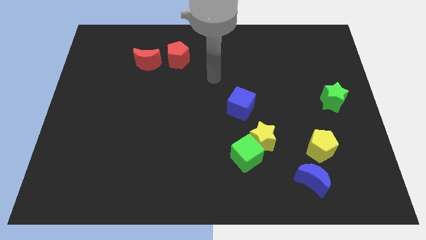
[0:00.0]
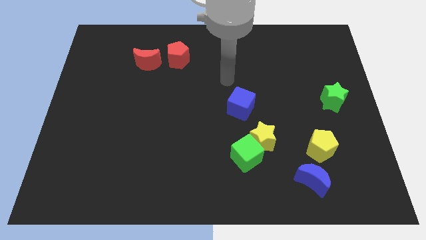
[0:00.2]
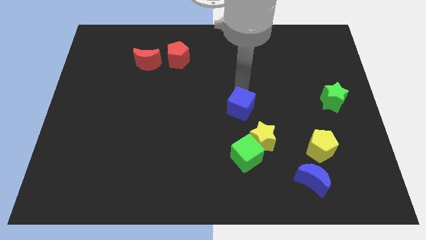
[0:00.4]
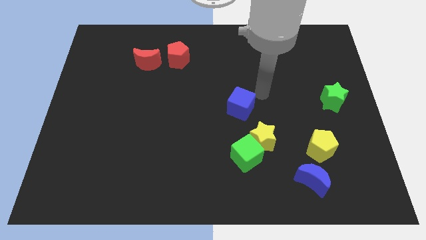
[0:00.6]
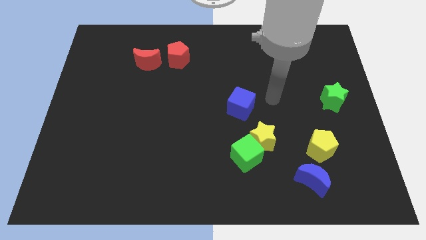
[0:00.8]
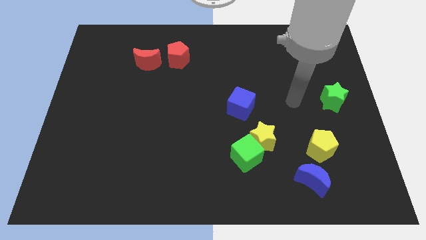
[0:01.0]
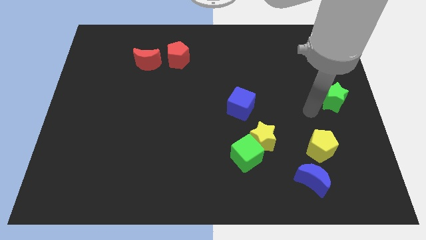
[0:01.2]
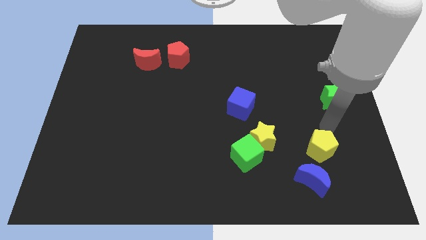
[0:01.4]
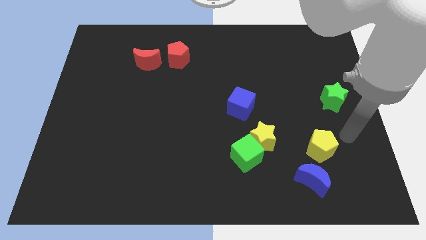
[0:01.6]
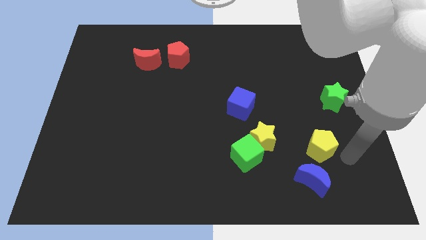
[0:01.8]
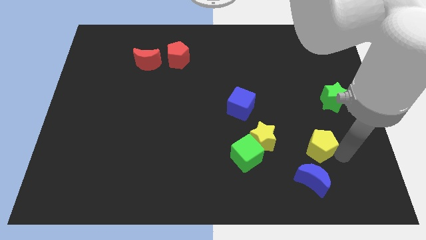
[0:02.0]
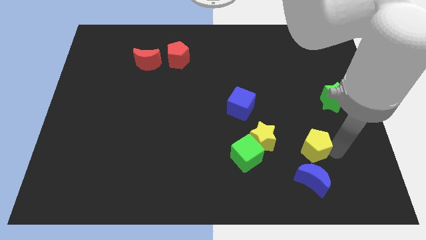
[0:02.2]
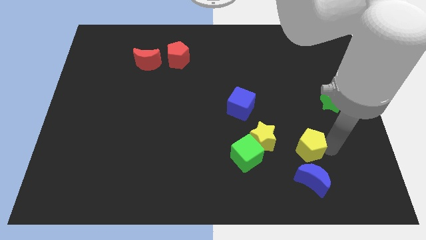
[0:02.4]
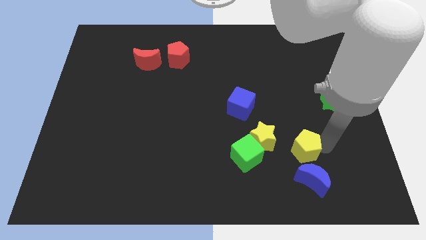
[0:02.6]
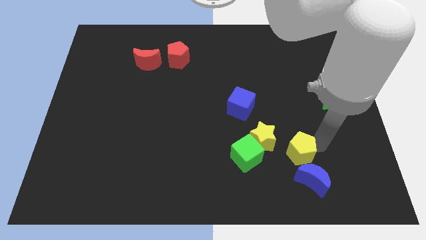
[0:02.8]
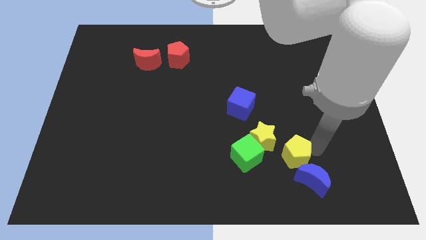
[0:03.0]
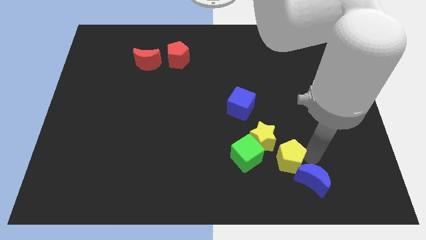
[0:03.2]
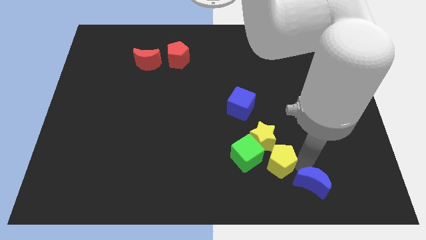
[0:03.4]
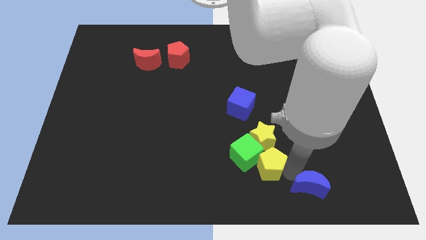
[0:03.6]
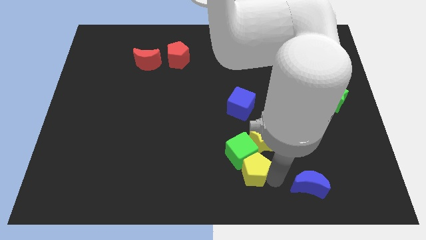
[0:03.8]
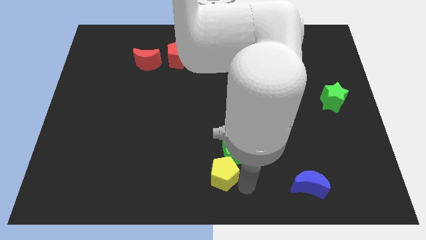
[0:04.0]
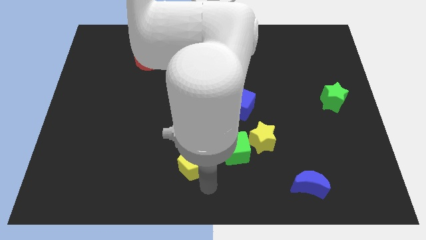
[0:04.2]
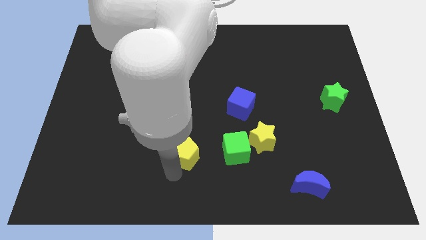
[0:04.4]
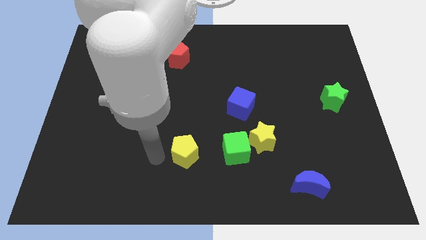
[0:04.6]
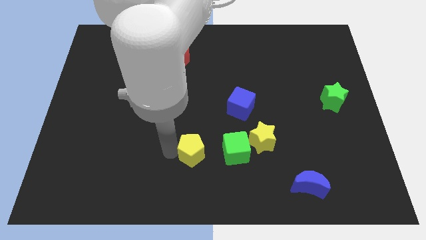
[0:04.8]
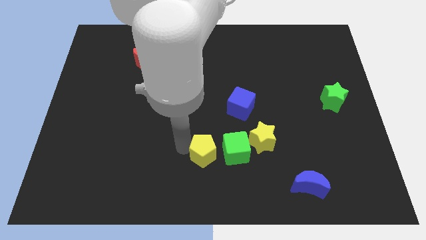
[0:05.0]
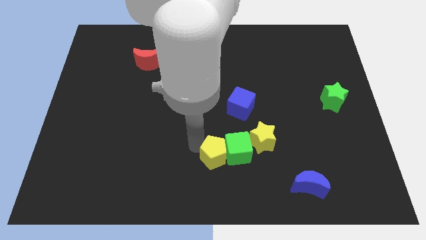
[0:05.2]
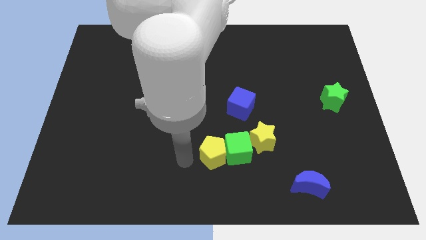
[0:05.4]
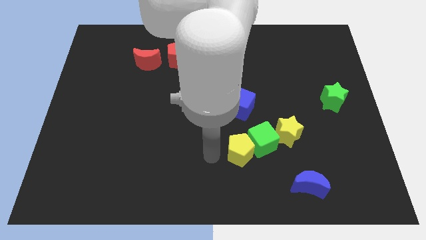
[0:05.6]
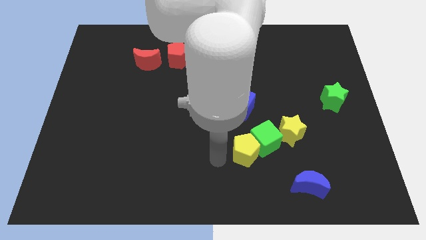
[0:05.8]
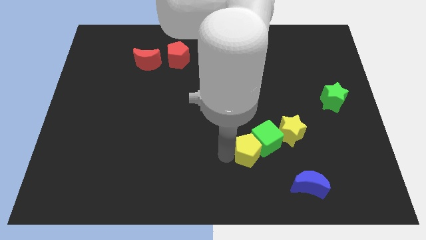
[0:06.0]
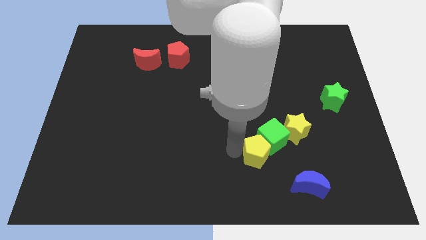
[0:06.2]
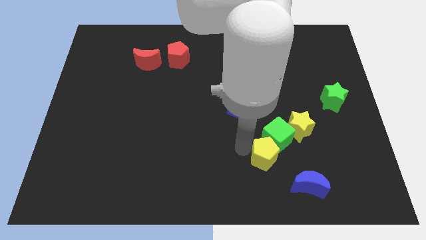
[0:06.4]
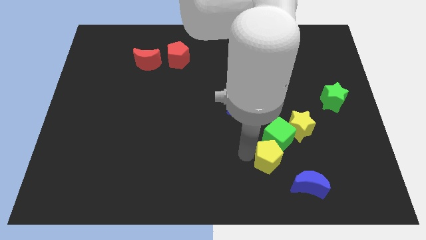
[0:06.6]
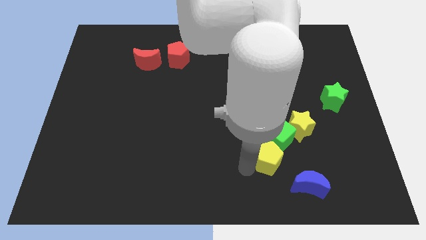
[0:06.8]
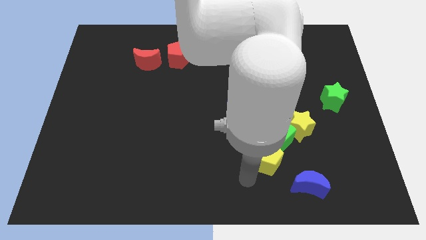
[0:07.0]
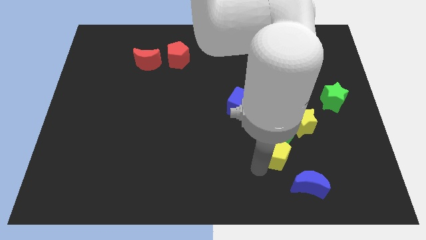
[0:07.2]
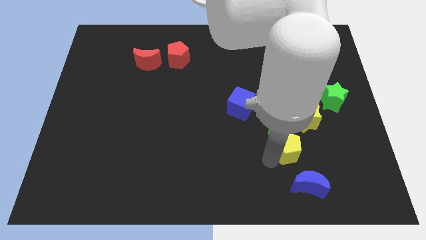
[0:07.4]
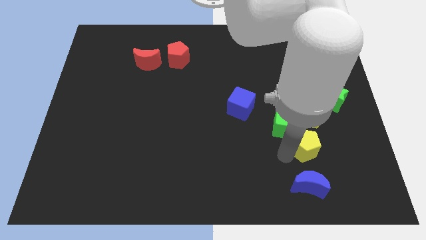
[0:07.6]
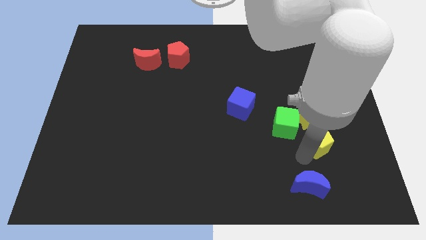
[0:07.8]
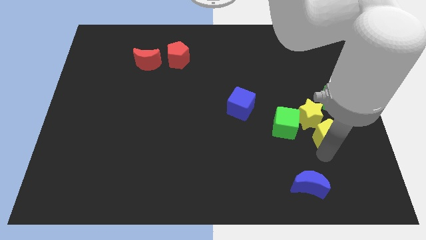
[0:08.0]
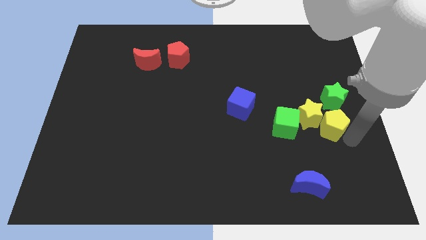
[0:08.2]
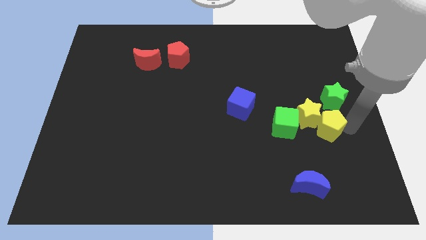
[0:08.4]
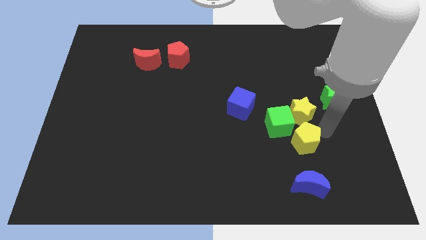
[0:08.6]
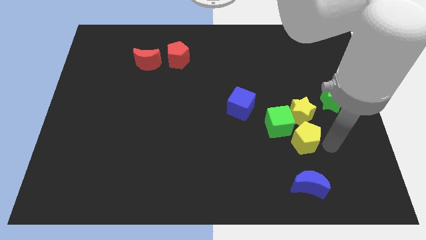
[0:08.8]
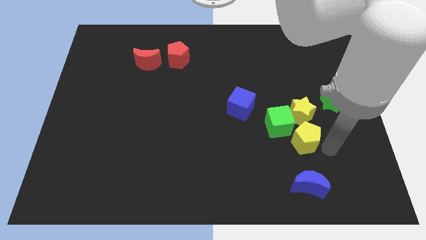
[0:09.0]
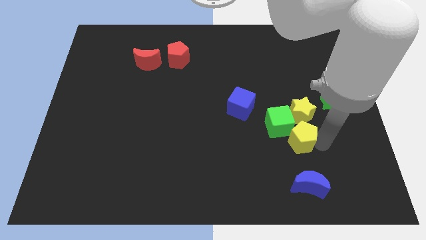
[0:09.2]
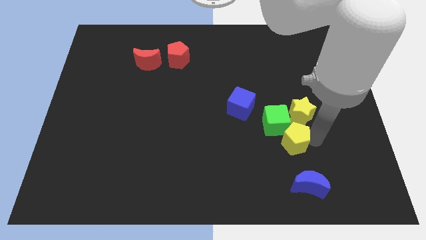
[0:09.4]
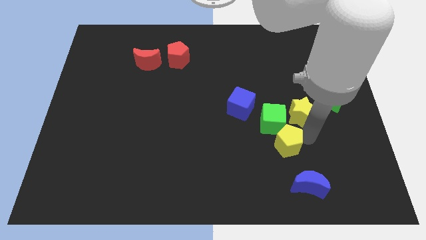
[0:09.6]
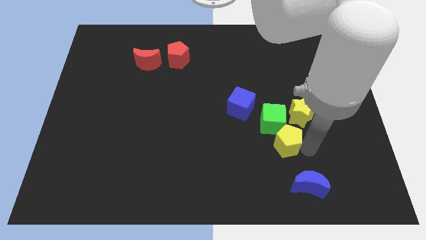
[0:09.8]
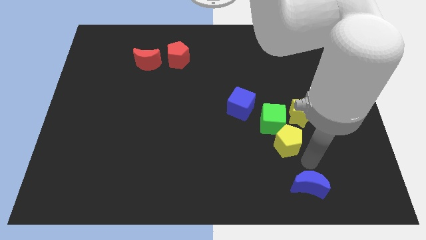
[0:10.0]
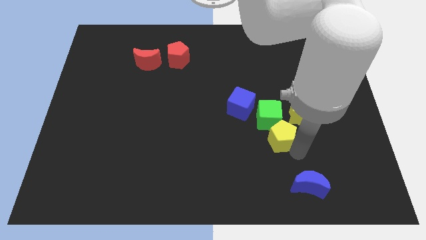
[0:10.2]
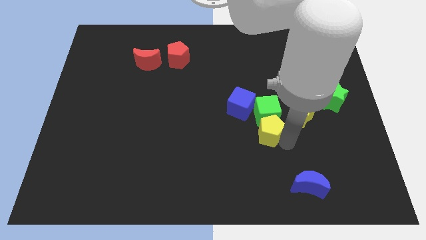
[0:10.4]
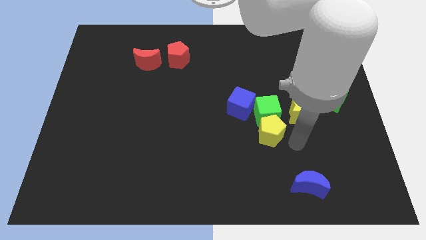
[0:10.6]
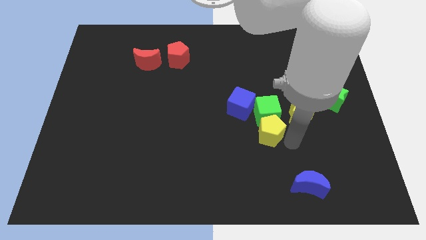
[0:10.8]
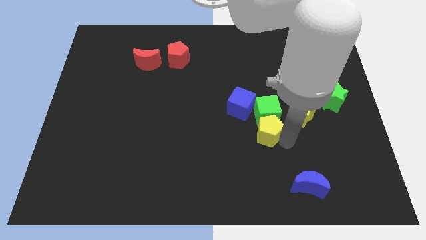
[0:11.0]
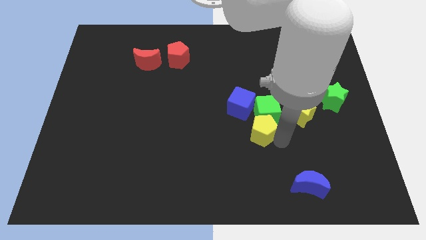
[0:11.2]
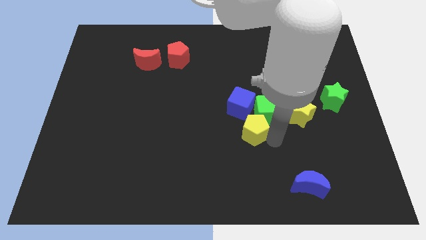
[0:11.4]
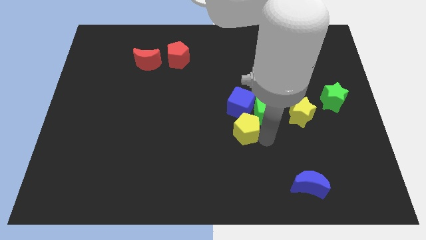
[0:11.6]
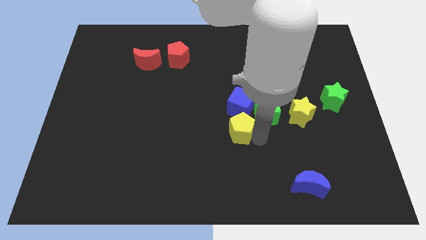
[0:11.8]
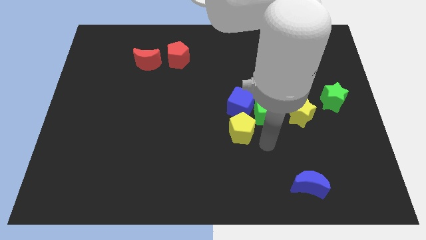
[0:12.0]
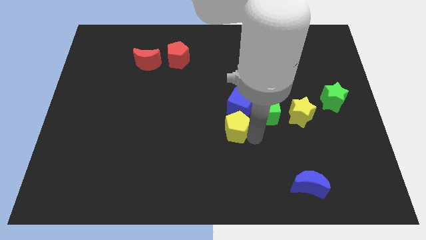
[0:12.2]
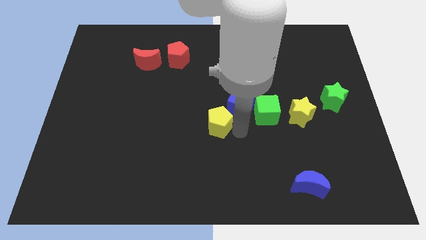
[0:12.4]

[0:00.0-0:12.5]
push the yellow pentagon to the left side of the blue cube

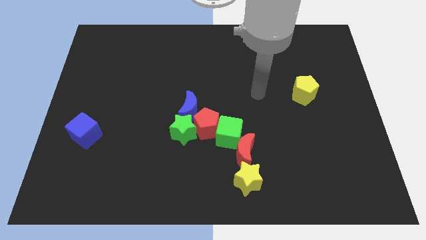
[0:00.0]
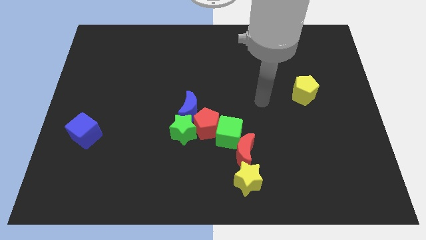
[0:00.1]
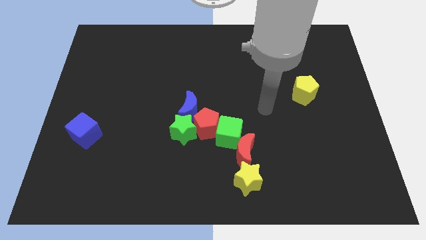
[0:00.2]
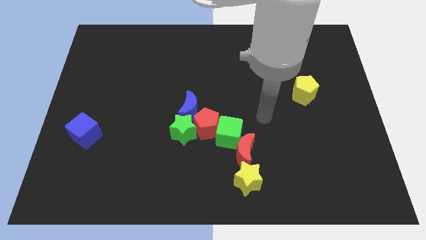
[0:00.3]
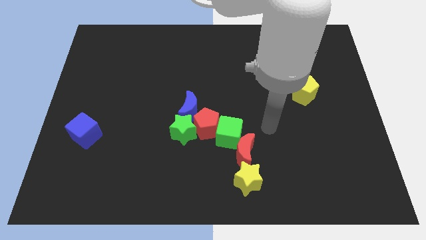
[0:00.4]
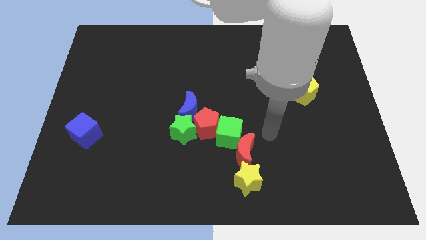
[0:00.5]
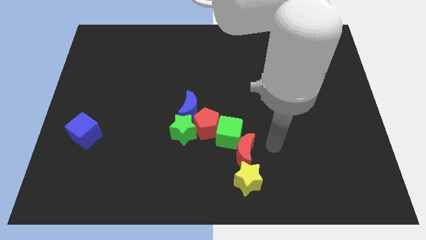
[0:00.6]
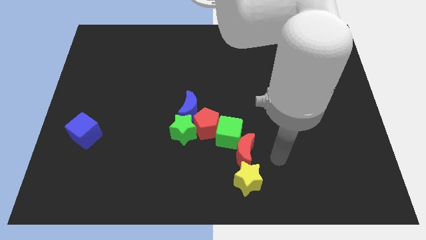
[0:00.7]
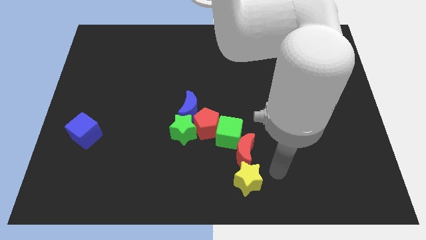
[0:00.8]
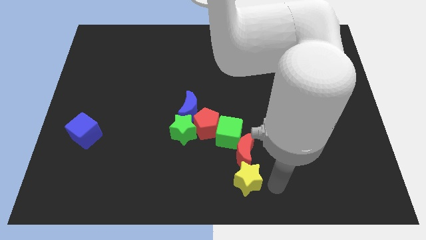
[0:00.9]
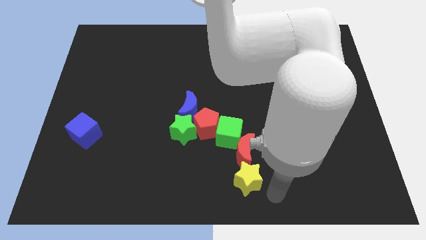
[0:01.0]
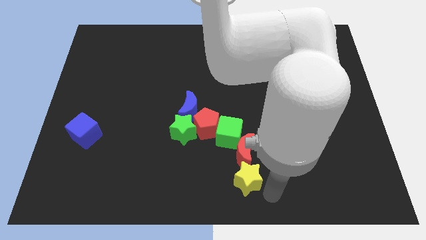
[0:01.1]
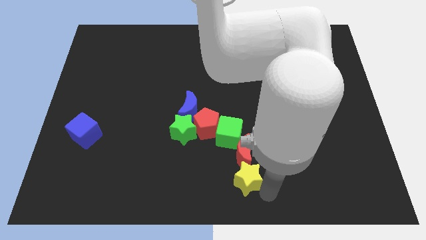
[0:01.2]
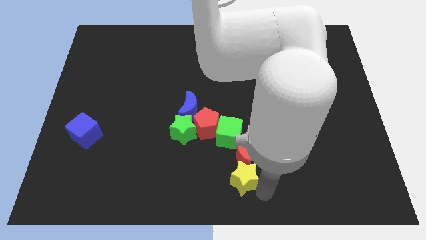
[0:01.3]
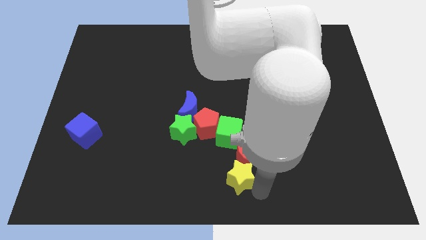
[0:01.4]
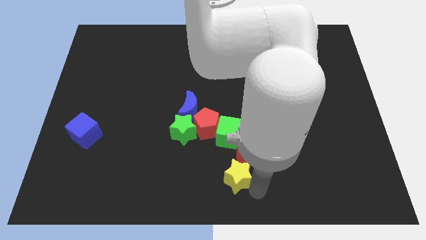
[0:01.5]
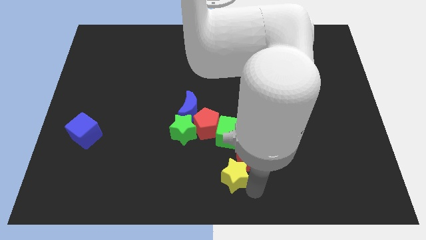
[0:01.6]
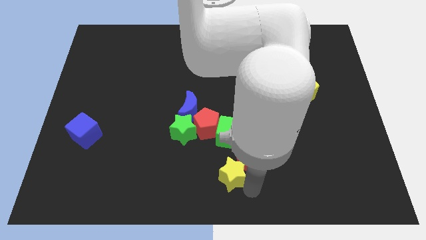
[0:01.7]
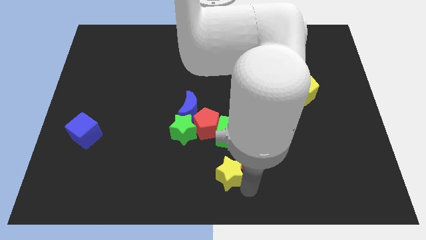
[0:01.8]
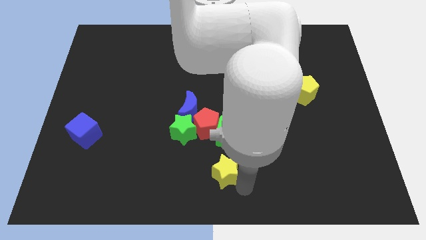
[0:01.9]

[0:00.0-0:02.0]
put the yellow star to the left of the red moon
